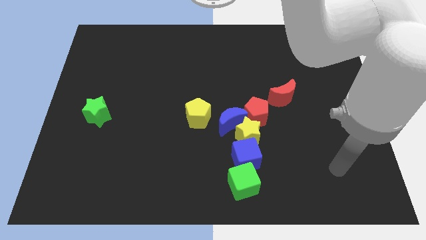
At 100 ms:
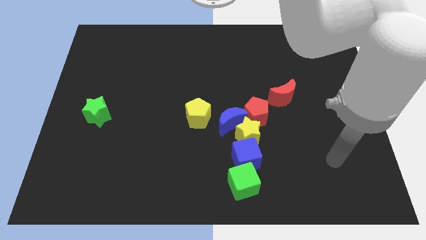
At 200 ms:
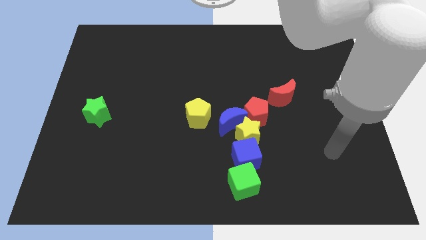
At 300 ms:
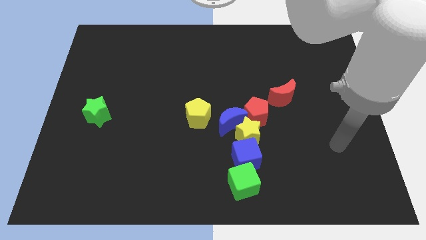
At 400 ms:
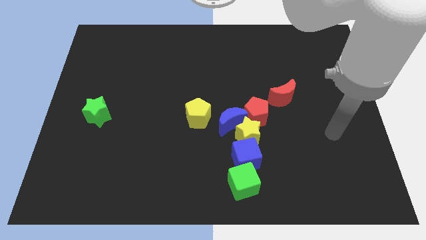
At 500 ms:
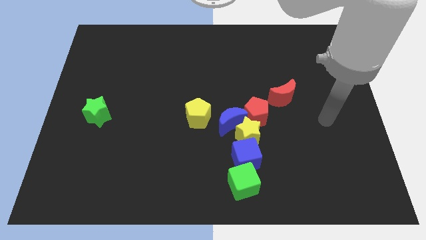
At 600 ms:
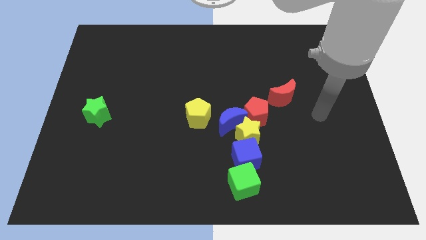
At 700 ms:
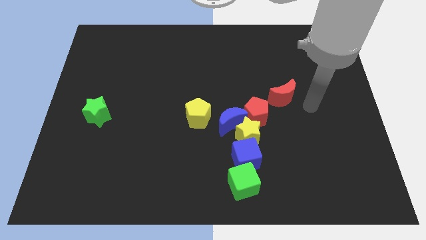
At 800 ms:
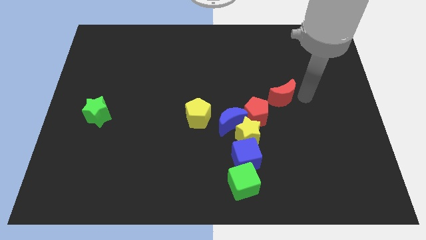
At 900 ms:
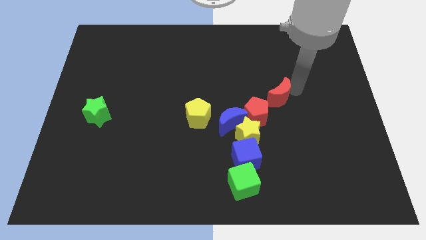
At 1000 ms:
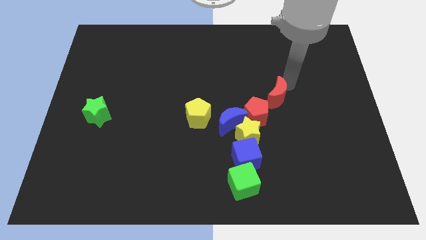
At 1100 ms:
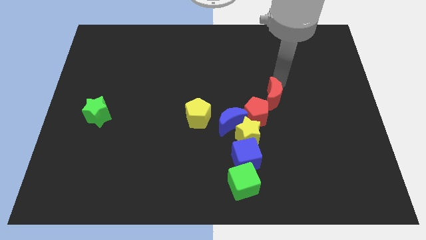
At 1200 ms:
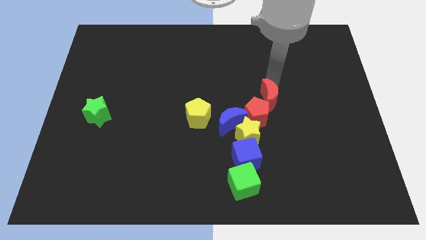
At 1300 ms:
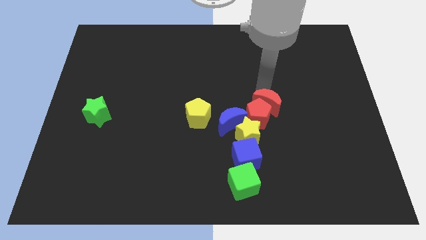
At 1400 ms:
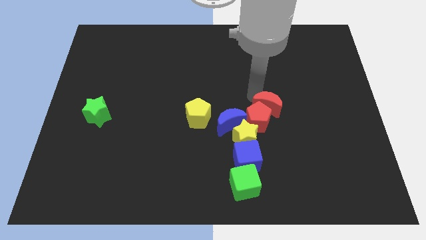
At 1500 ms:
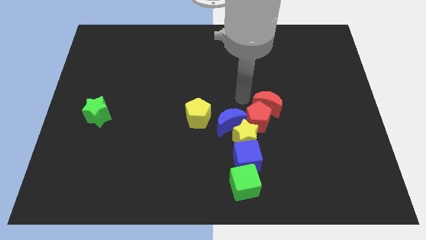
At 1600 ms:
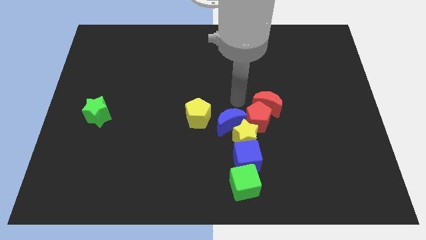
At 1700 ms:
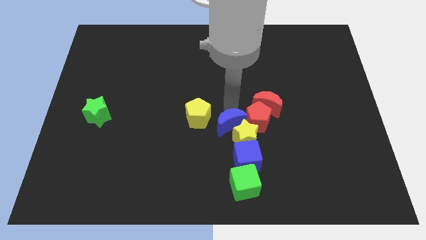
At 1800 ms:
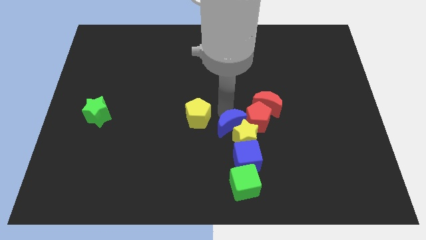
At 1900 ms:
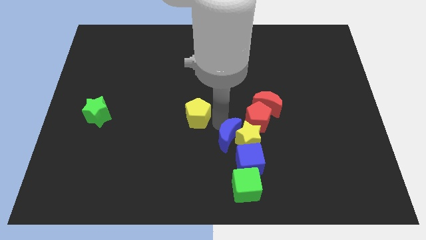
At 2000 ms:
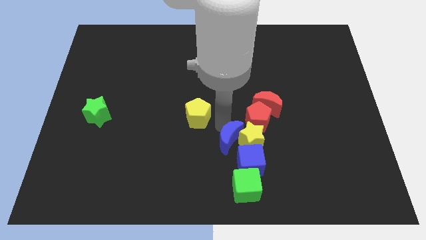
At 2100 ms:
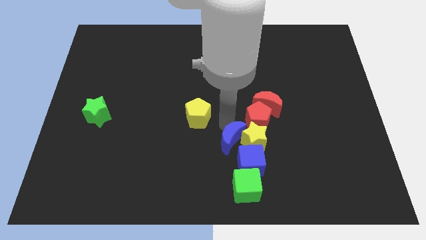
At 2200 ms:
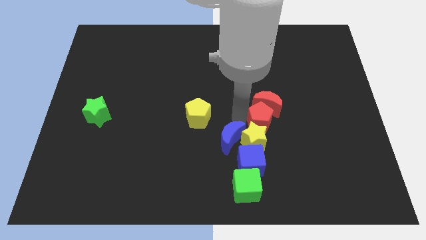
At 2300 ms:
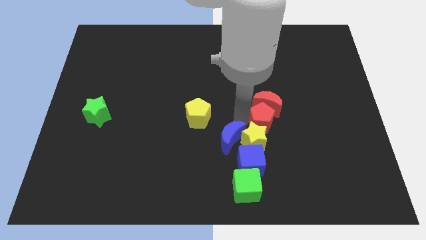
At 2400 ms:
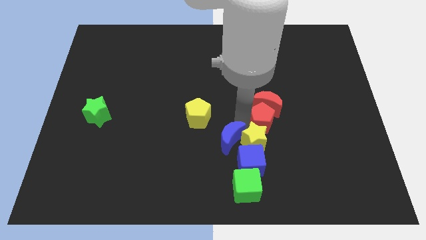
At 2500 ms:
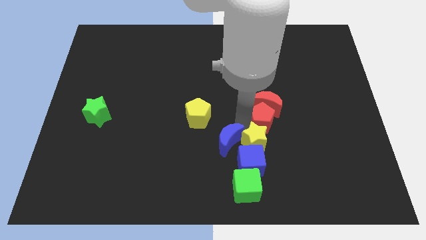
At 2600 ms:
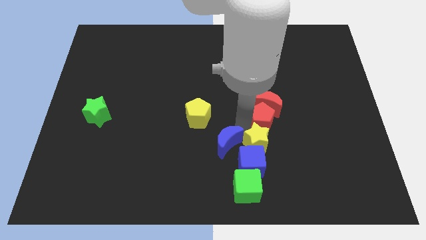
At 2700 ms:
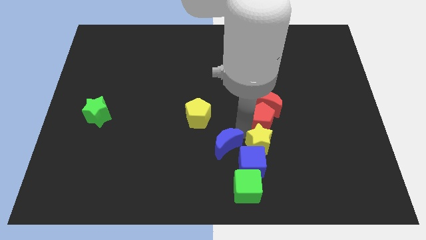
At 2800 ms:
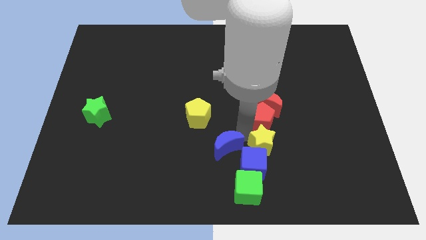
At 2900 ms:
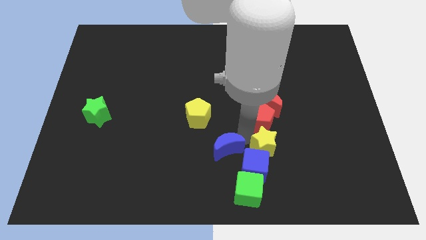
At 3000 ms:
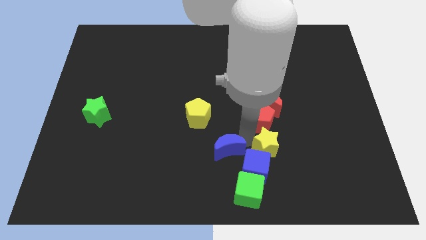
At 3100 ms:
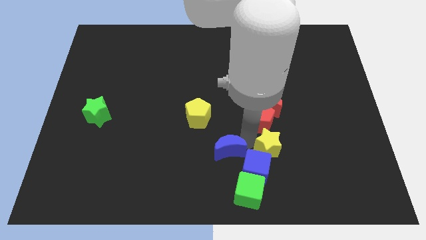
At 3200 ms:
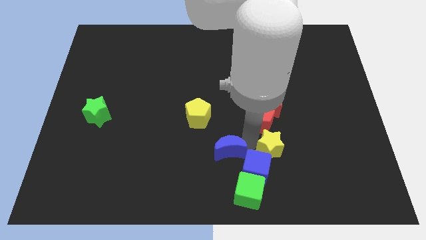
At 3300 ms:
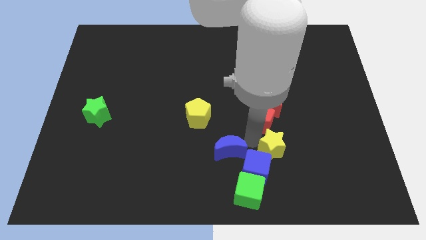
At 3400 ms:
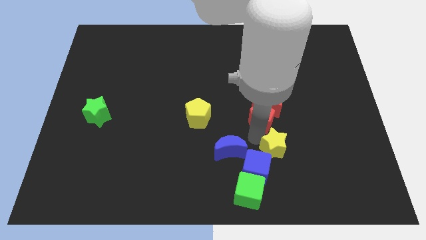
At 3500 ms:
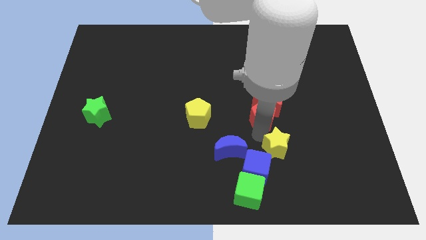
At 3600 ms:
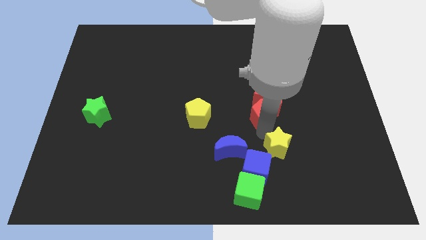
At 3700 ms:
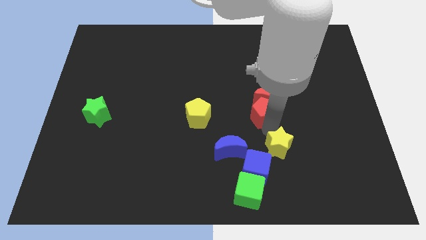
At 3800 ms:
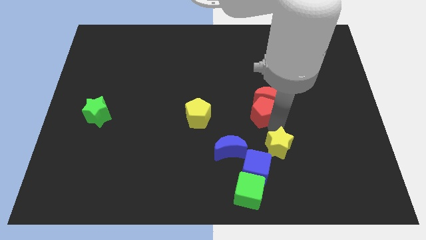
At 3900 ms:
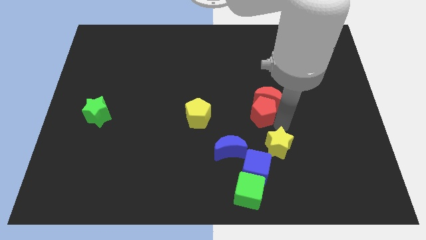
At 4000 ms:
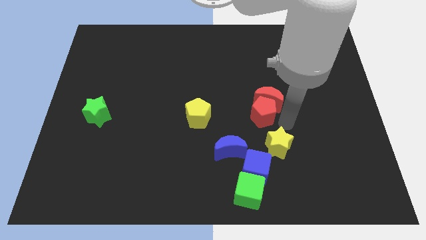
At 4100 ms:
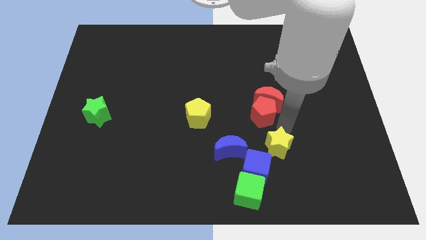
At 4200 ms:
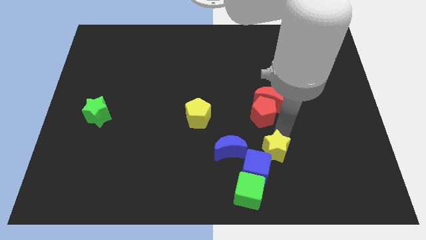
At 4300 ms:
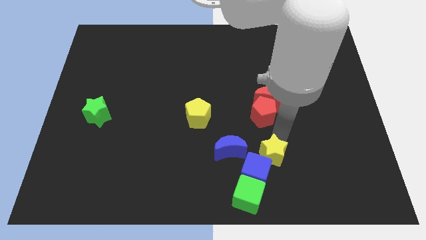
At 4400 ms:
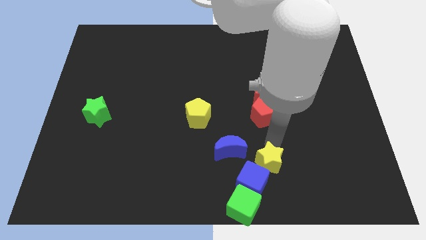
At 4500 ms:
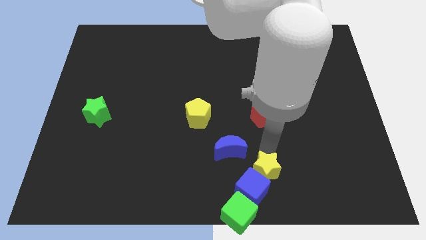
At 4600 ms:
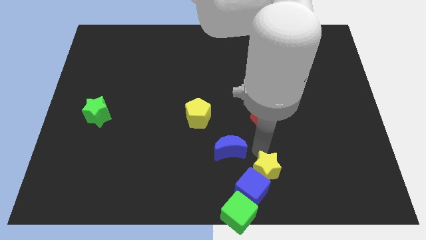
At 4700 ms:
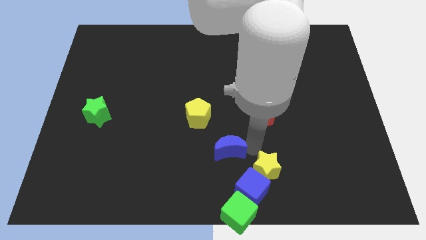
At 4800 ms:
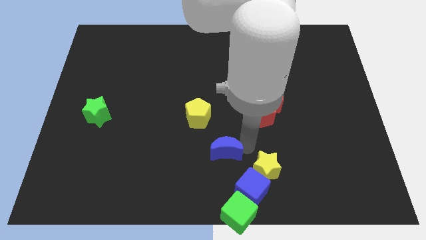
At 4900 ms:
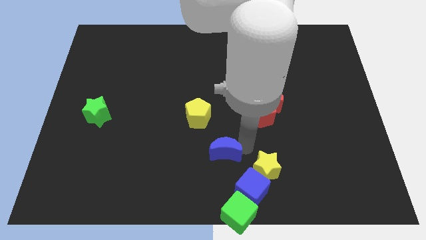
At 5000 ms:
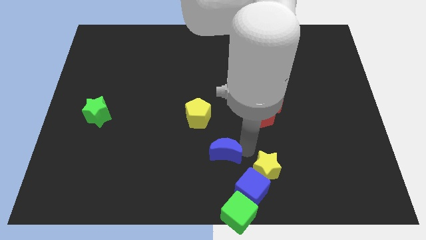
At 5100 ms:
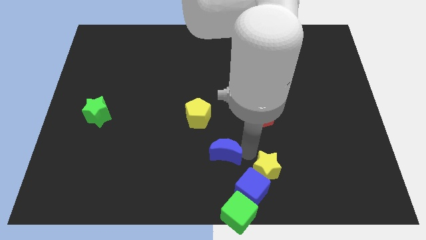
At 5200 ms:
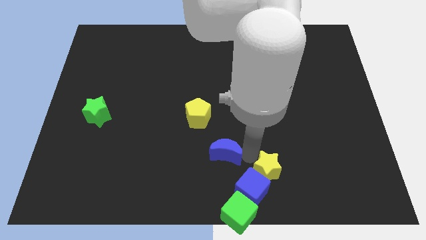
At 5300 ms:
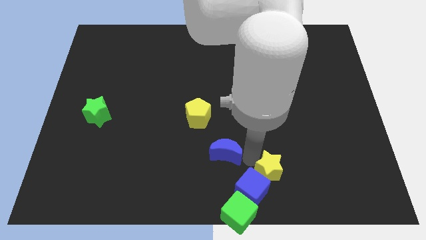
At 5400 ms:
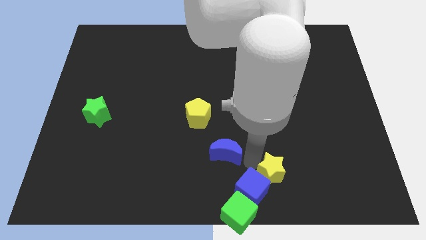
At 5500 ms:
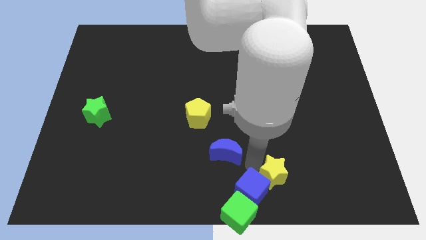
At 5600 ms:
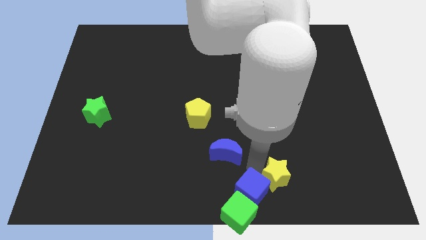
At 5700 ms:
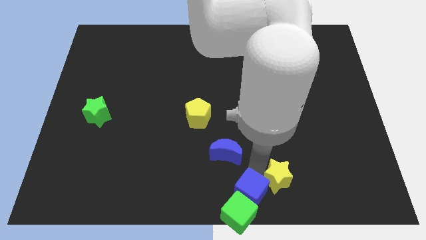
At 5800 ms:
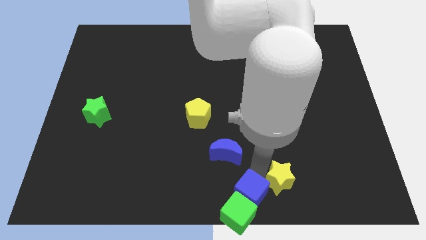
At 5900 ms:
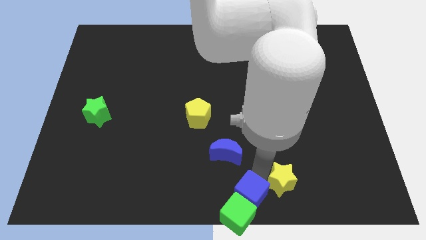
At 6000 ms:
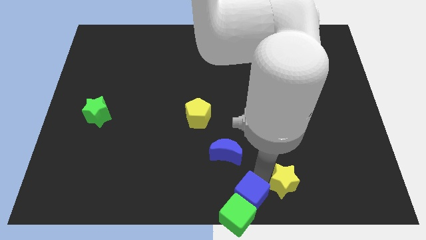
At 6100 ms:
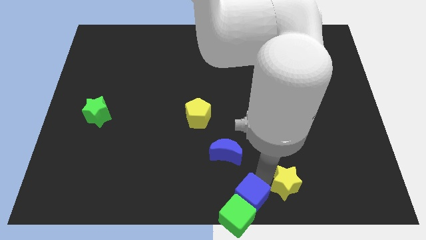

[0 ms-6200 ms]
pull the yellow star apart from the blue moon, blue cube, and red pentagon

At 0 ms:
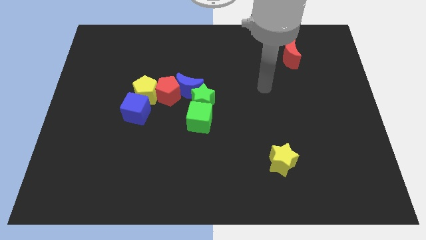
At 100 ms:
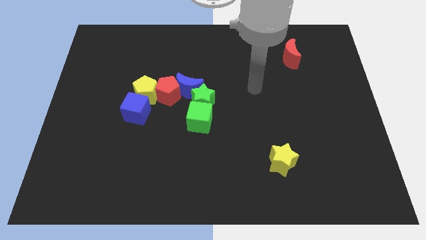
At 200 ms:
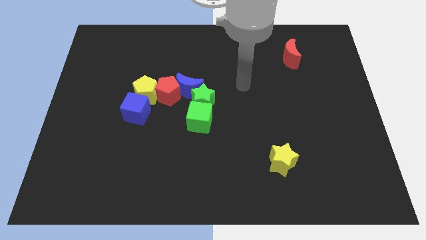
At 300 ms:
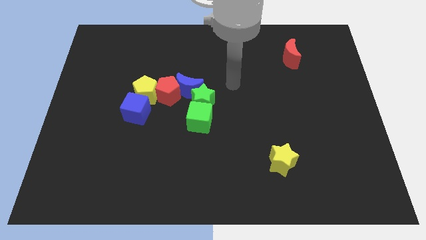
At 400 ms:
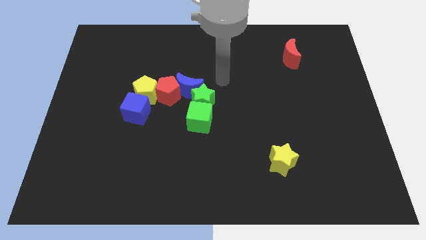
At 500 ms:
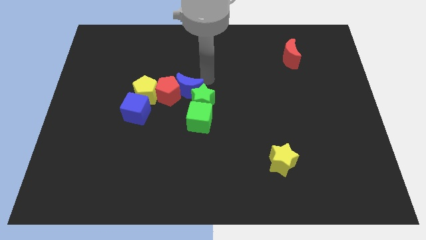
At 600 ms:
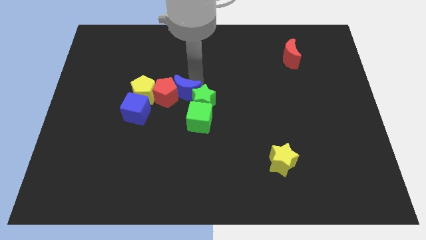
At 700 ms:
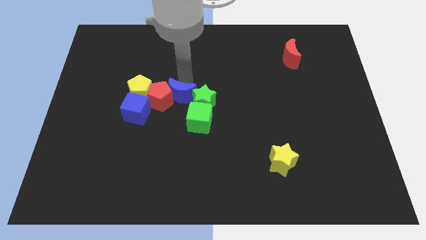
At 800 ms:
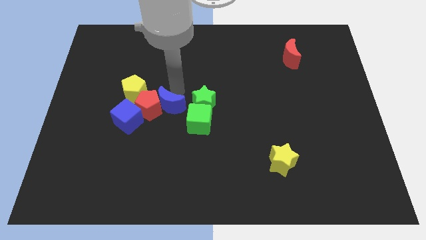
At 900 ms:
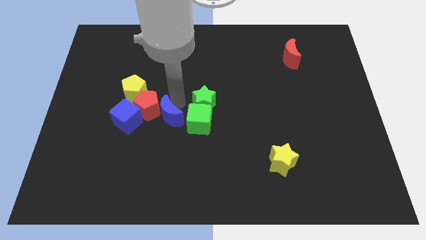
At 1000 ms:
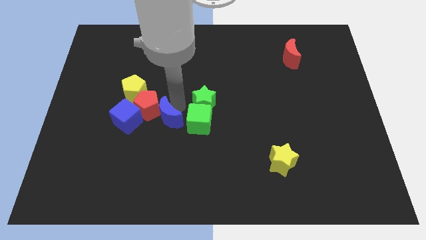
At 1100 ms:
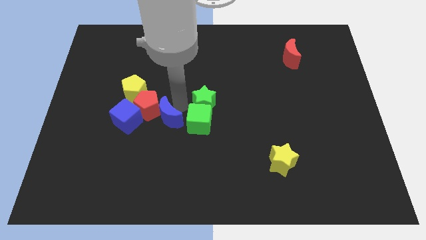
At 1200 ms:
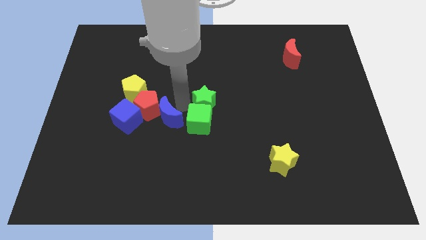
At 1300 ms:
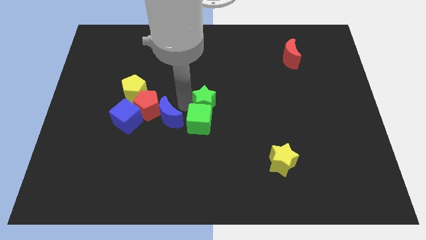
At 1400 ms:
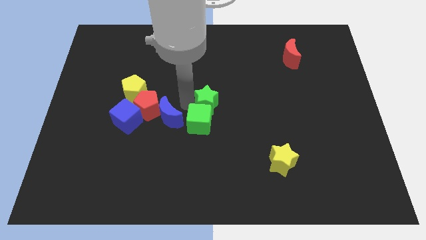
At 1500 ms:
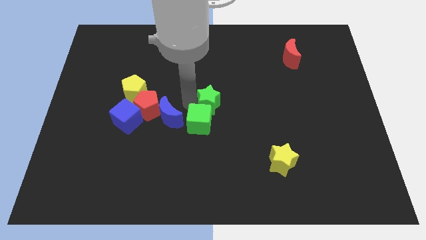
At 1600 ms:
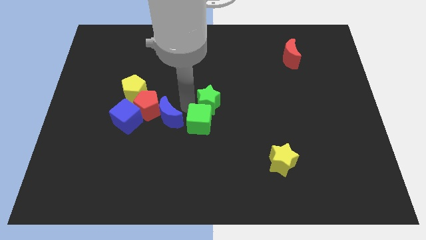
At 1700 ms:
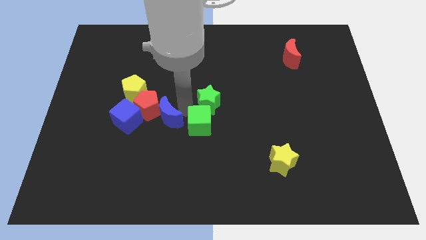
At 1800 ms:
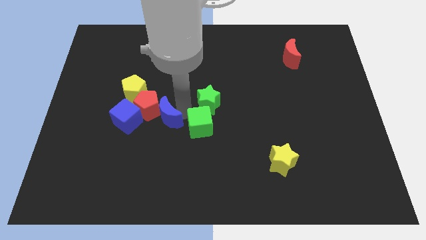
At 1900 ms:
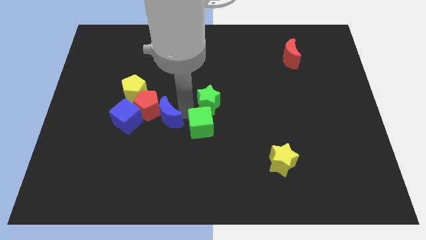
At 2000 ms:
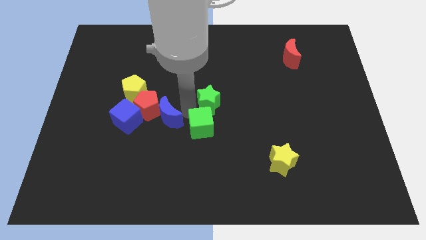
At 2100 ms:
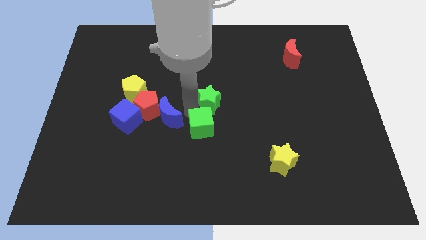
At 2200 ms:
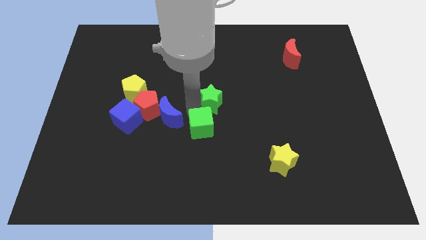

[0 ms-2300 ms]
pull the green star apart from the blue moon, green cube, and red pentagon

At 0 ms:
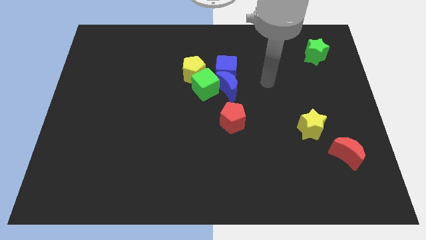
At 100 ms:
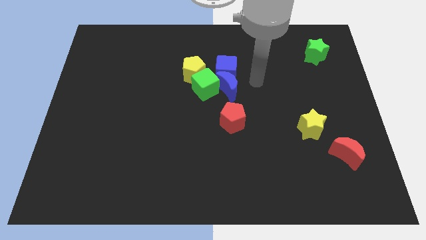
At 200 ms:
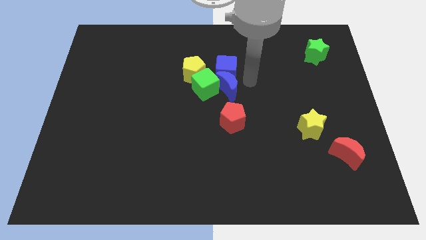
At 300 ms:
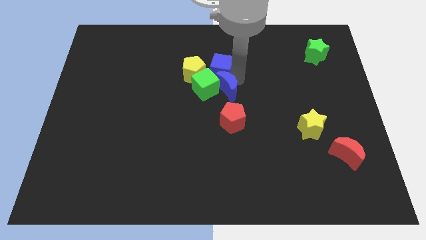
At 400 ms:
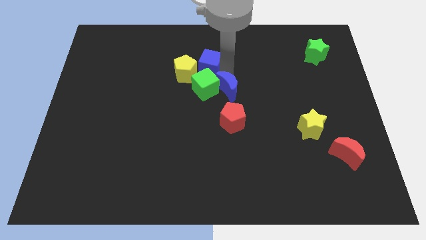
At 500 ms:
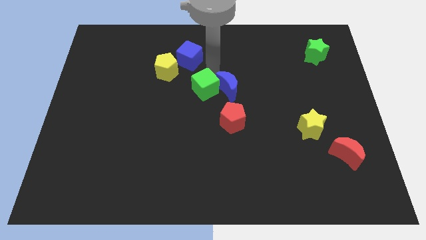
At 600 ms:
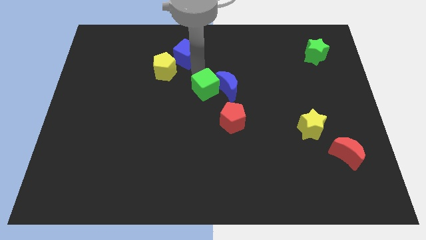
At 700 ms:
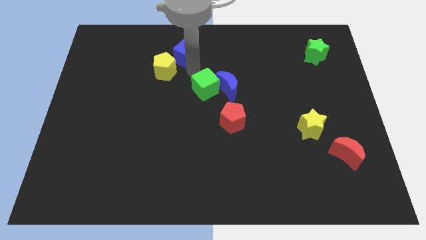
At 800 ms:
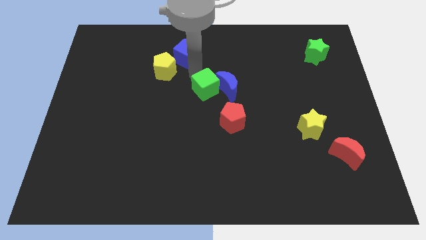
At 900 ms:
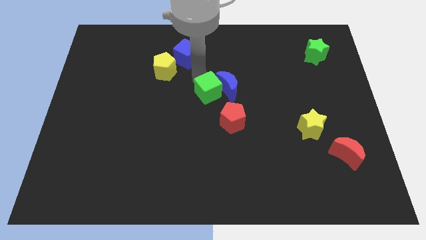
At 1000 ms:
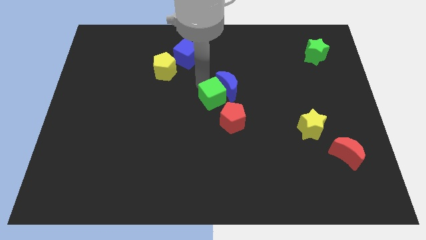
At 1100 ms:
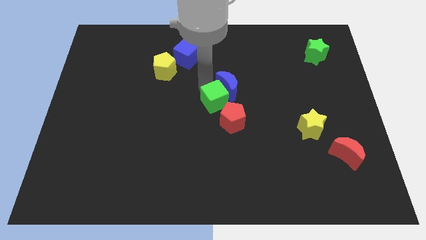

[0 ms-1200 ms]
pull the green cube apart from the clump
